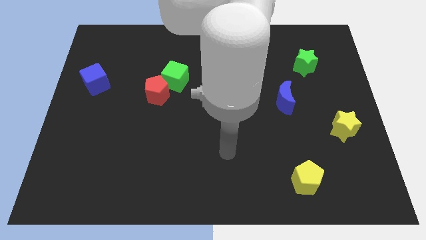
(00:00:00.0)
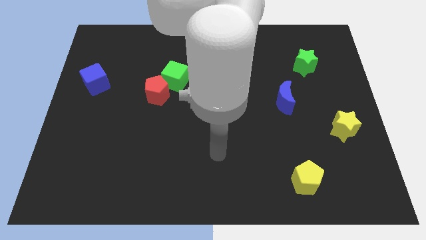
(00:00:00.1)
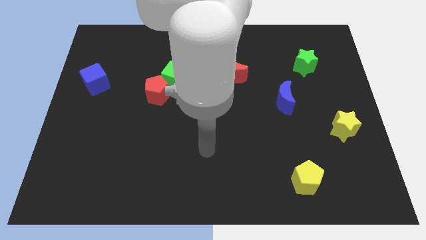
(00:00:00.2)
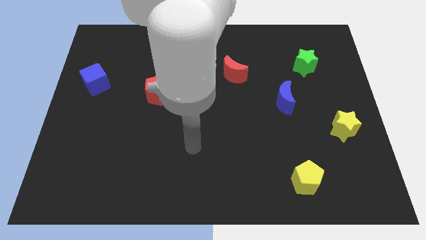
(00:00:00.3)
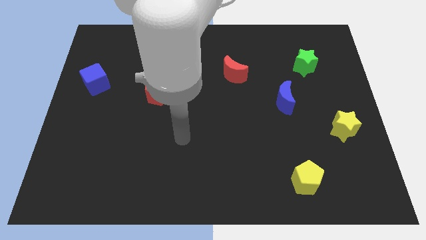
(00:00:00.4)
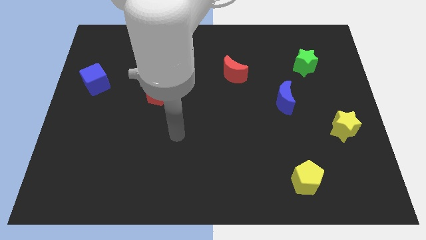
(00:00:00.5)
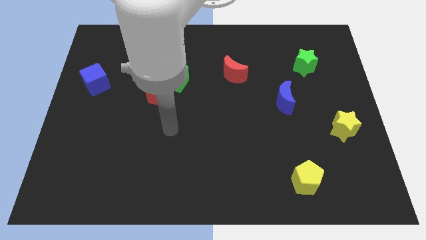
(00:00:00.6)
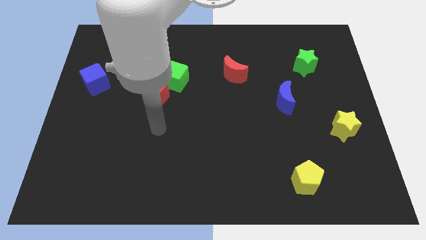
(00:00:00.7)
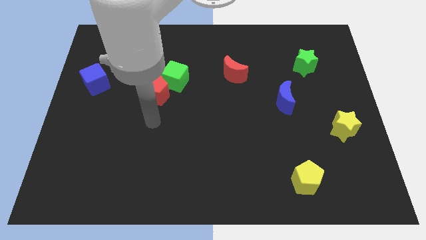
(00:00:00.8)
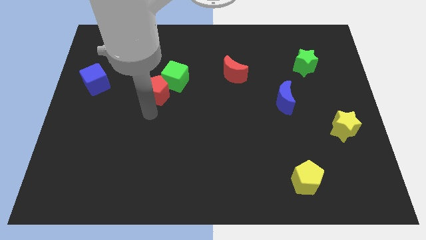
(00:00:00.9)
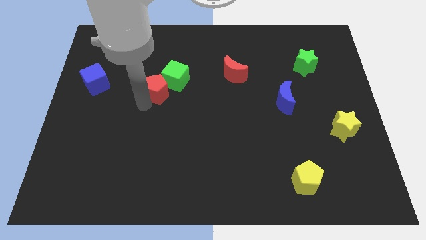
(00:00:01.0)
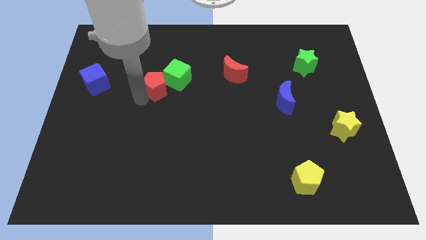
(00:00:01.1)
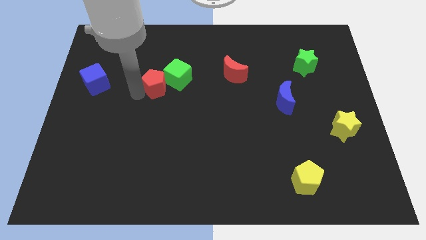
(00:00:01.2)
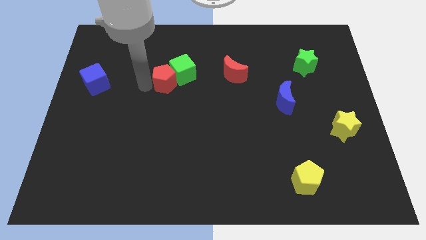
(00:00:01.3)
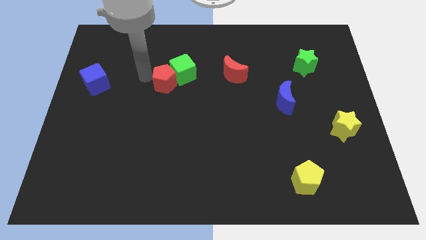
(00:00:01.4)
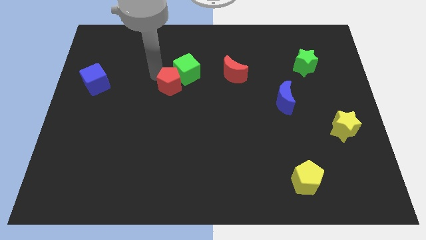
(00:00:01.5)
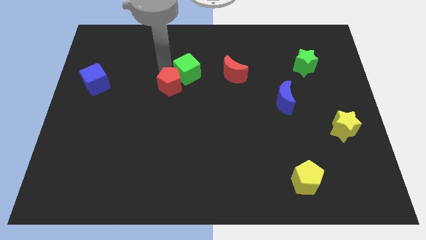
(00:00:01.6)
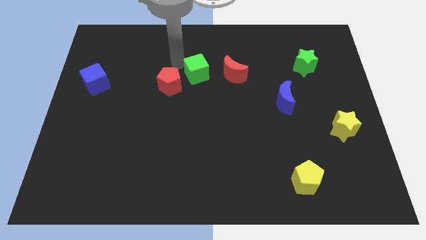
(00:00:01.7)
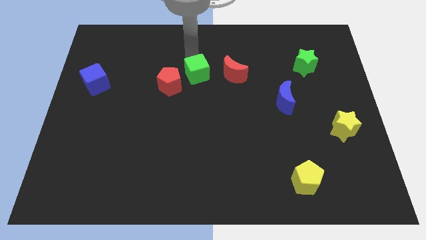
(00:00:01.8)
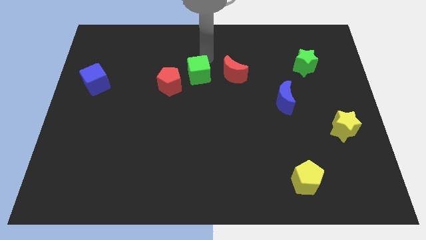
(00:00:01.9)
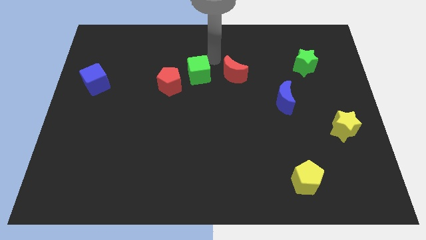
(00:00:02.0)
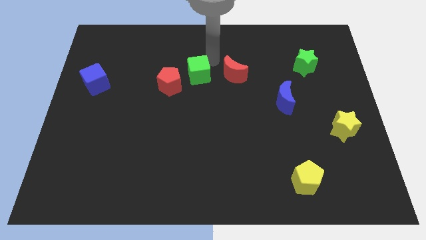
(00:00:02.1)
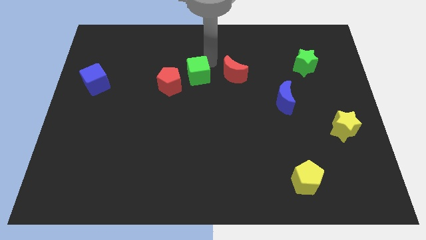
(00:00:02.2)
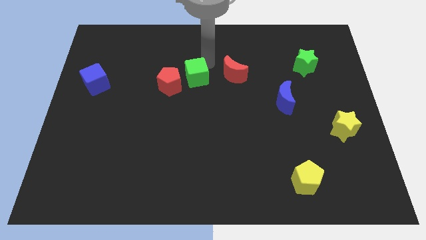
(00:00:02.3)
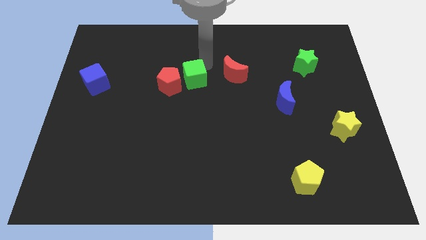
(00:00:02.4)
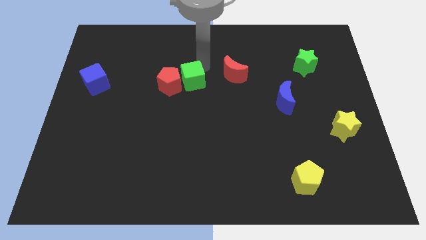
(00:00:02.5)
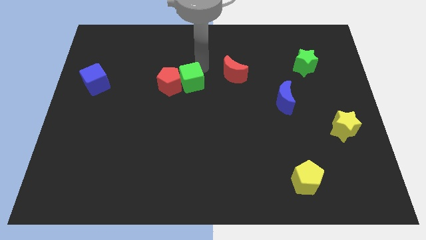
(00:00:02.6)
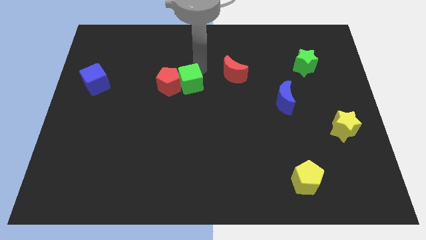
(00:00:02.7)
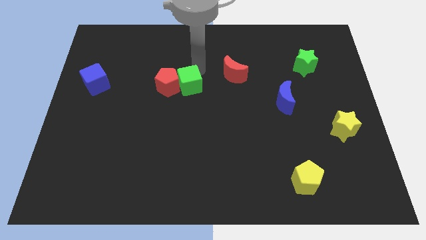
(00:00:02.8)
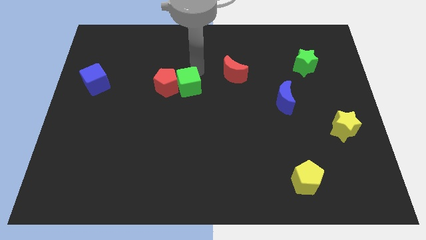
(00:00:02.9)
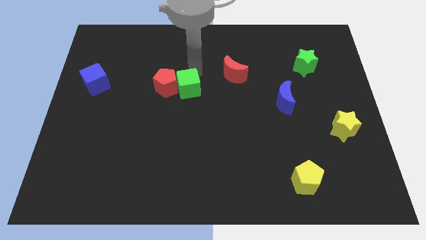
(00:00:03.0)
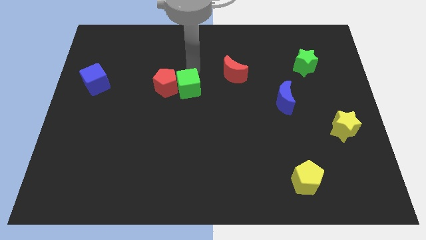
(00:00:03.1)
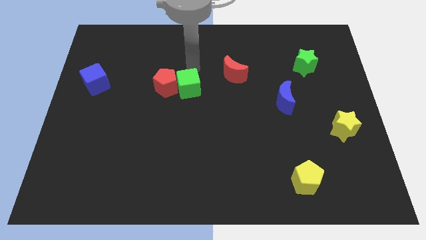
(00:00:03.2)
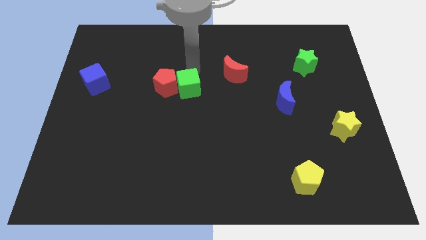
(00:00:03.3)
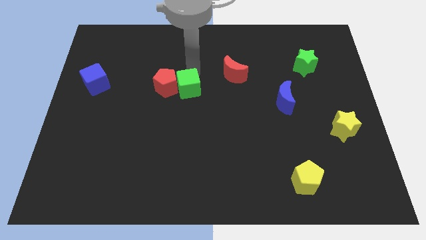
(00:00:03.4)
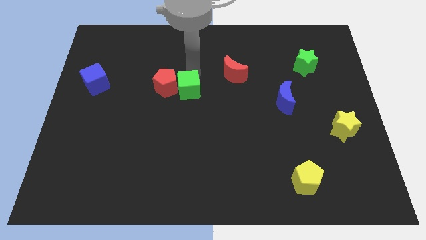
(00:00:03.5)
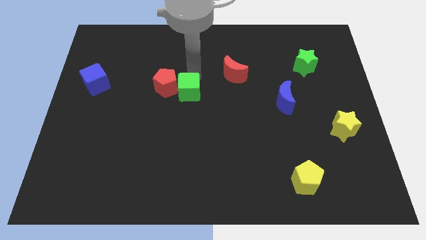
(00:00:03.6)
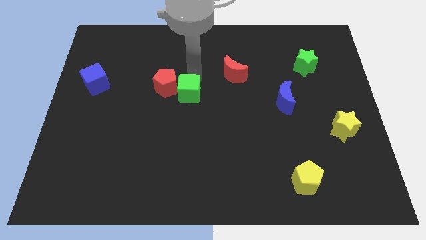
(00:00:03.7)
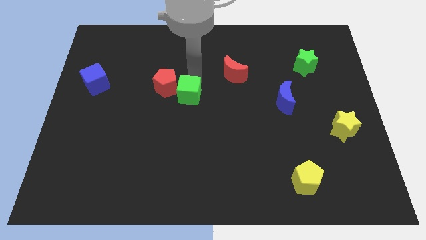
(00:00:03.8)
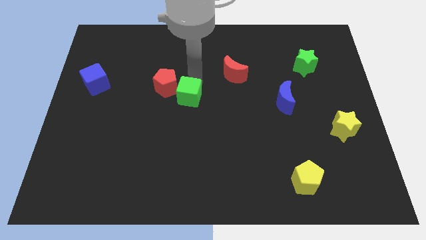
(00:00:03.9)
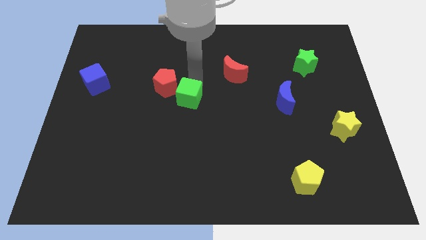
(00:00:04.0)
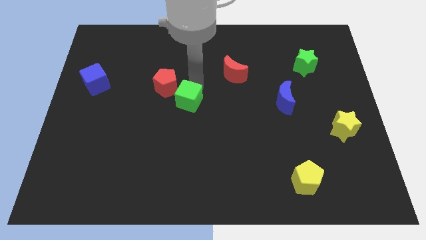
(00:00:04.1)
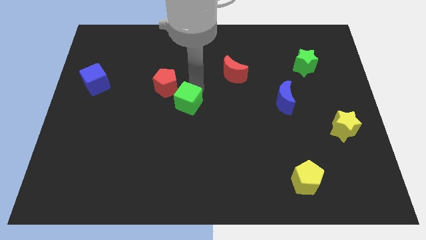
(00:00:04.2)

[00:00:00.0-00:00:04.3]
push the green cube down slightly

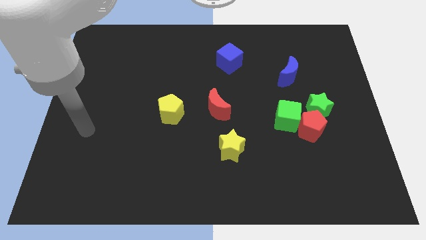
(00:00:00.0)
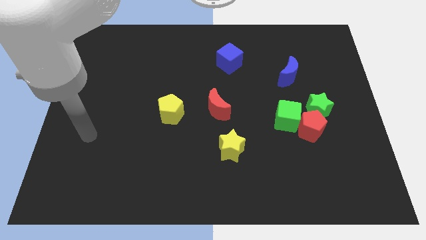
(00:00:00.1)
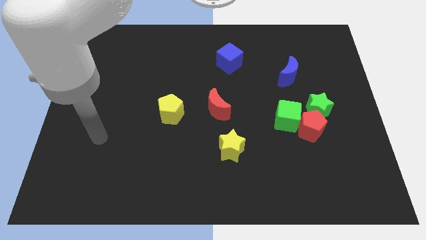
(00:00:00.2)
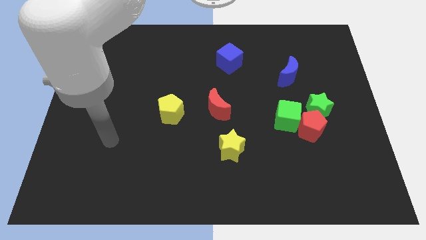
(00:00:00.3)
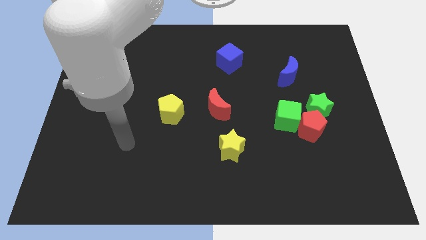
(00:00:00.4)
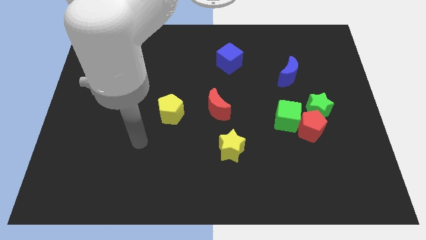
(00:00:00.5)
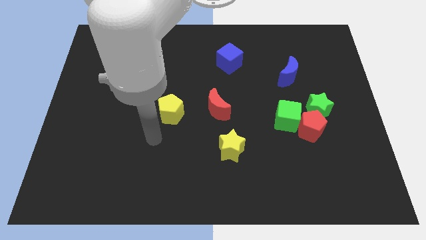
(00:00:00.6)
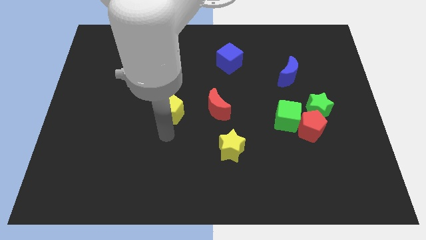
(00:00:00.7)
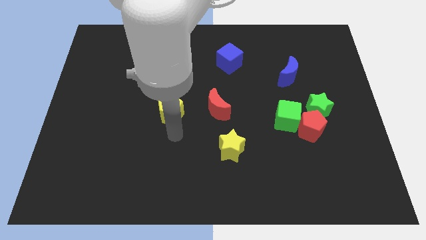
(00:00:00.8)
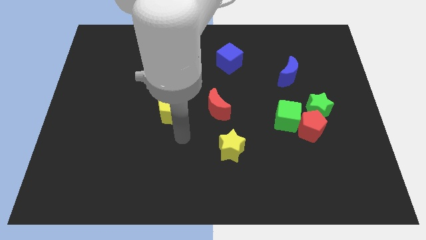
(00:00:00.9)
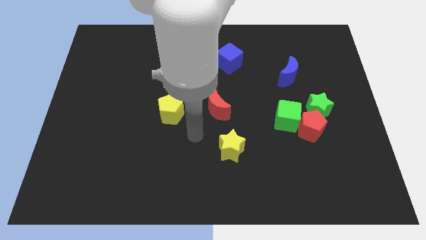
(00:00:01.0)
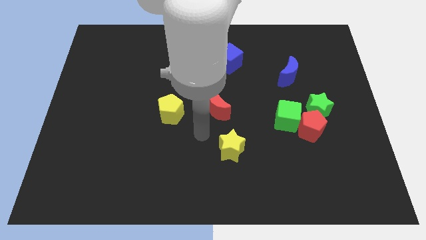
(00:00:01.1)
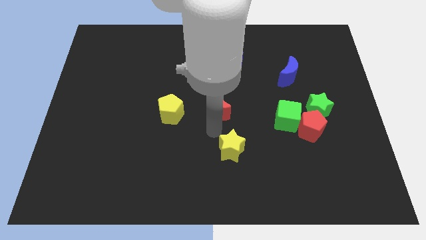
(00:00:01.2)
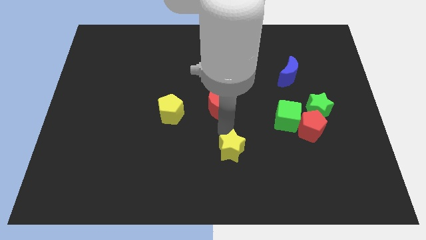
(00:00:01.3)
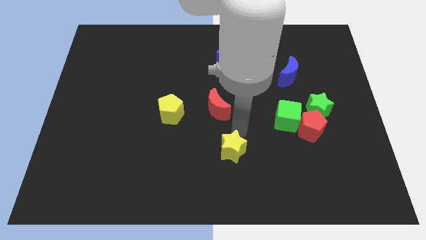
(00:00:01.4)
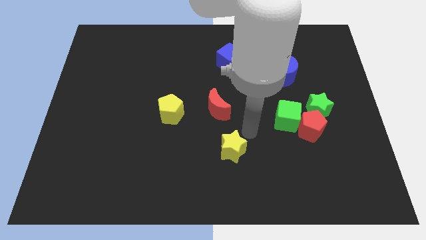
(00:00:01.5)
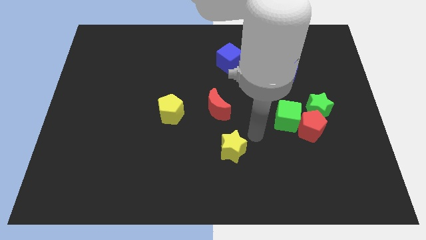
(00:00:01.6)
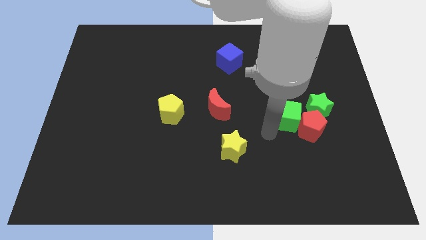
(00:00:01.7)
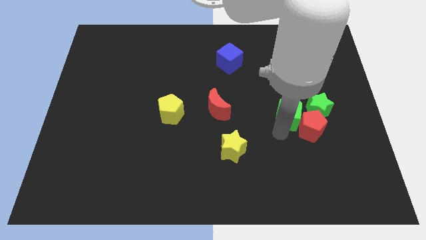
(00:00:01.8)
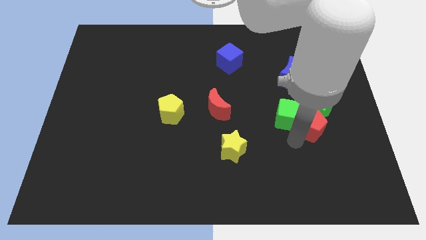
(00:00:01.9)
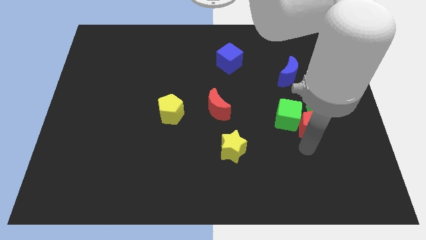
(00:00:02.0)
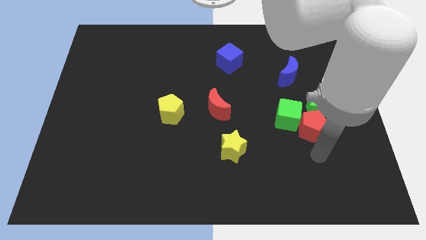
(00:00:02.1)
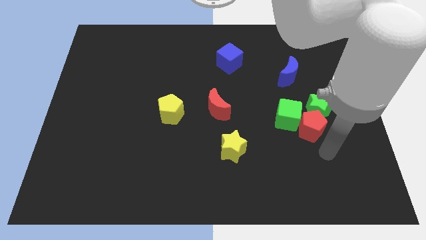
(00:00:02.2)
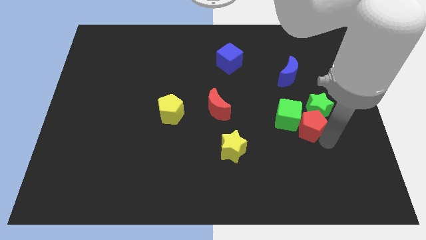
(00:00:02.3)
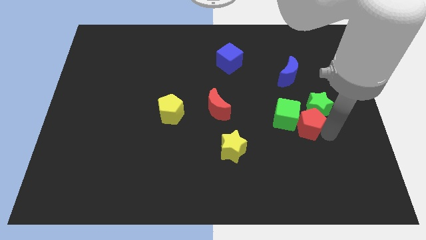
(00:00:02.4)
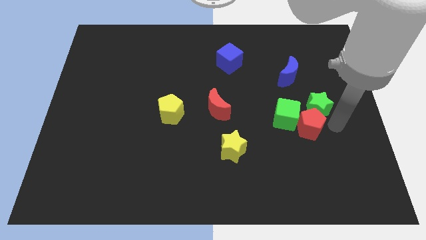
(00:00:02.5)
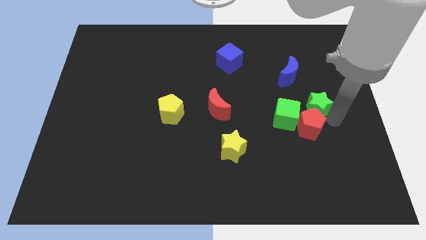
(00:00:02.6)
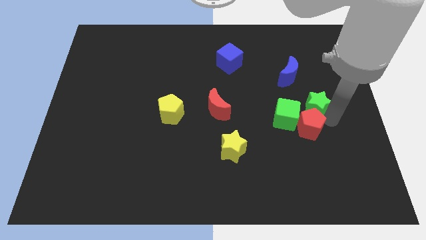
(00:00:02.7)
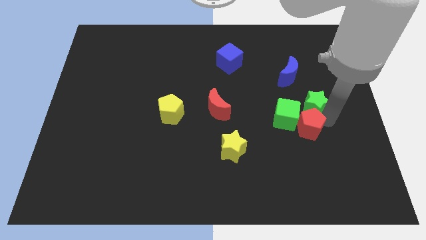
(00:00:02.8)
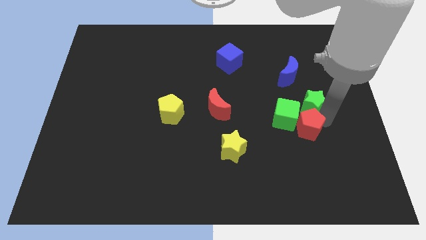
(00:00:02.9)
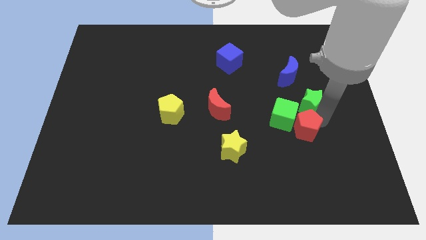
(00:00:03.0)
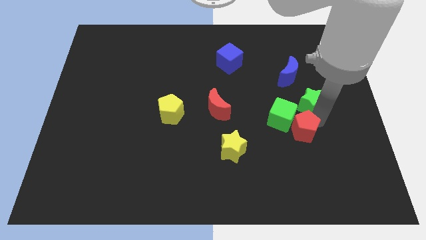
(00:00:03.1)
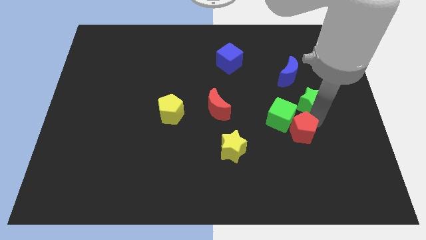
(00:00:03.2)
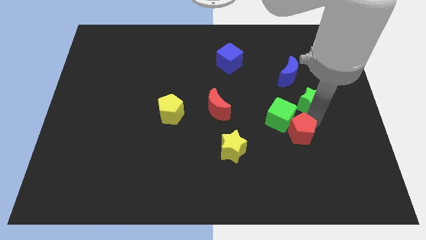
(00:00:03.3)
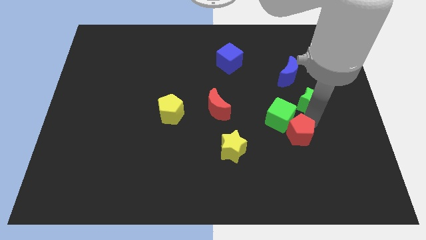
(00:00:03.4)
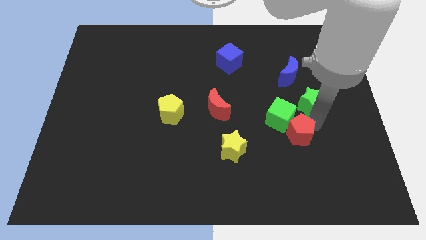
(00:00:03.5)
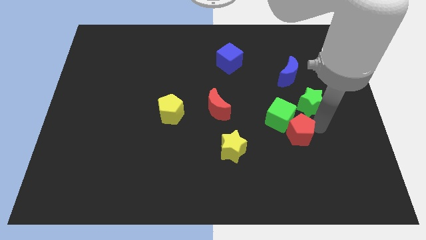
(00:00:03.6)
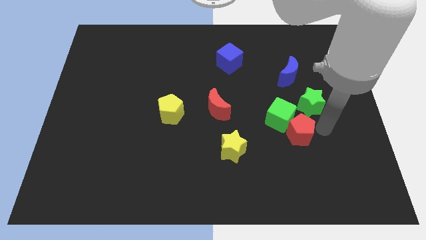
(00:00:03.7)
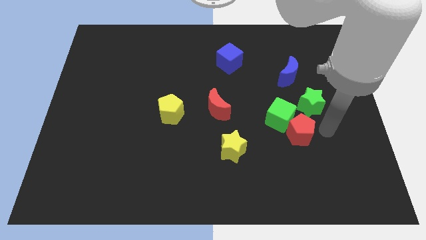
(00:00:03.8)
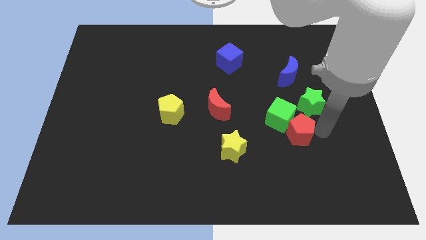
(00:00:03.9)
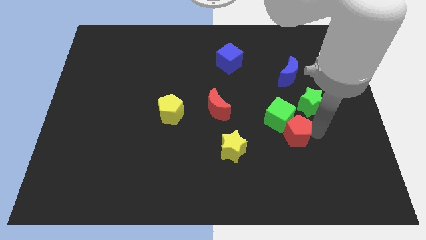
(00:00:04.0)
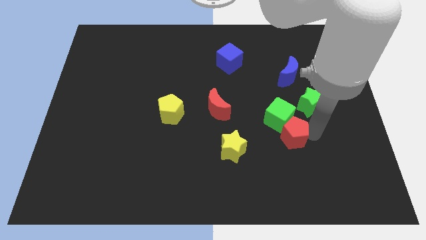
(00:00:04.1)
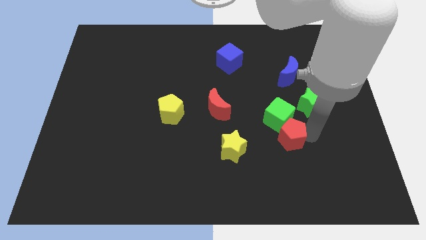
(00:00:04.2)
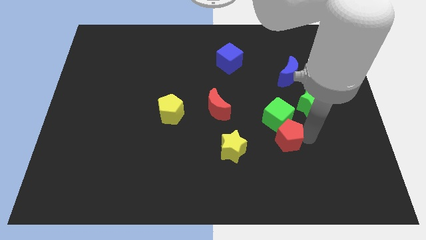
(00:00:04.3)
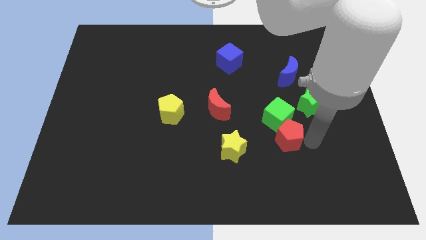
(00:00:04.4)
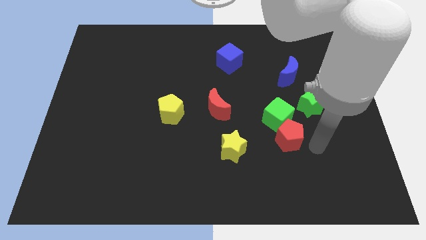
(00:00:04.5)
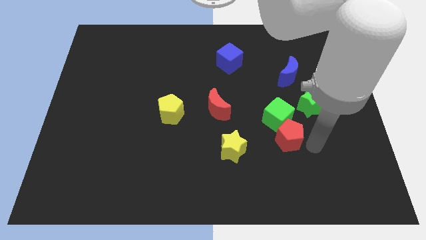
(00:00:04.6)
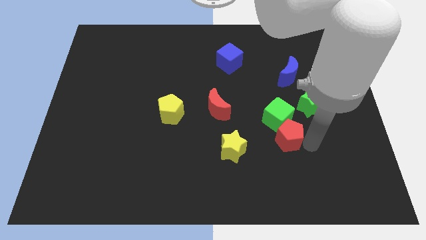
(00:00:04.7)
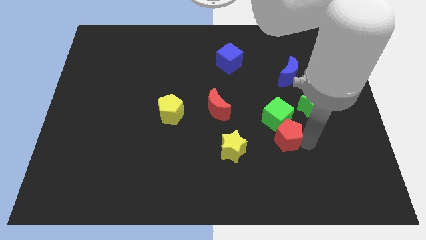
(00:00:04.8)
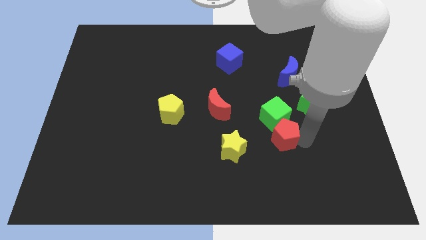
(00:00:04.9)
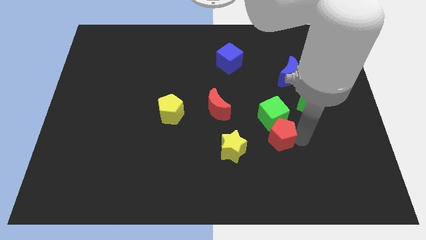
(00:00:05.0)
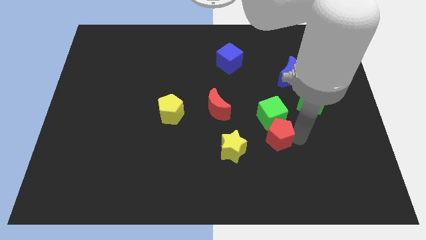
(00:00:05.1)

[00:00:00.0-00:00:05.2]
slide the red pentagon somewhat left
